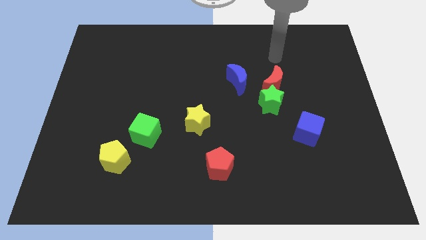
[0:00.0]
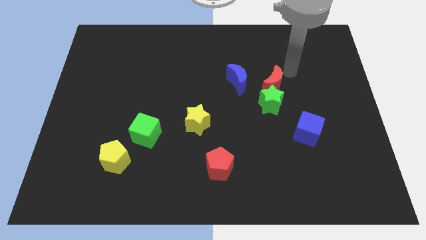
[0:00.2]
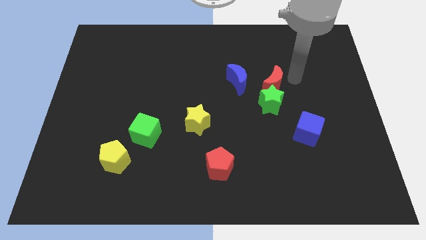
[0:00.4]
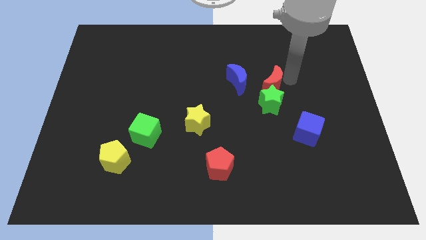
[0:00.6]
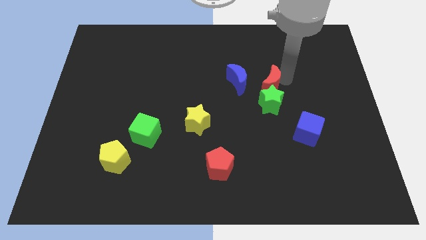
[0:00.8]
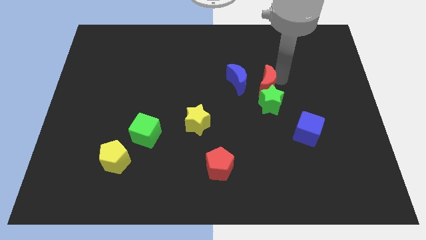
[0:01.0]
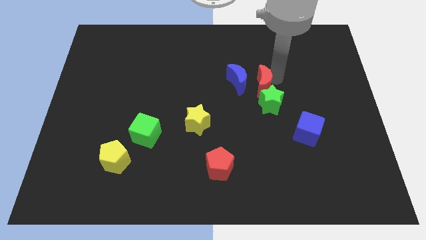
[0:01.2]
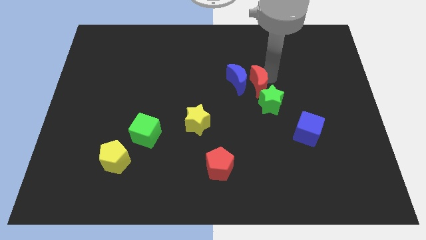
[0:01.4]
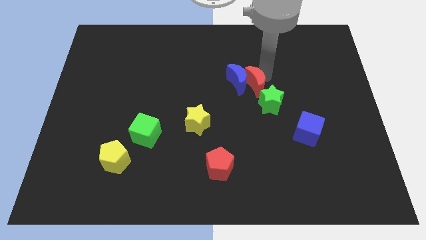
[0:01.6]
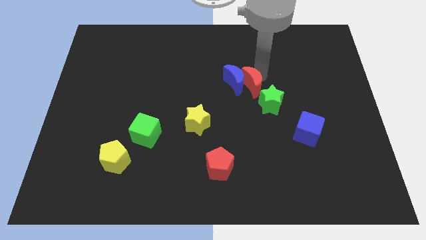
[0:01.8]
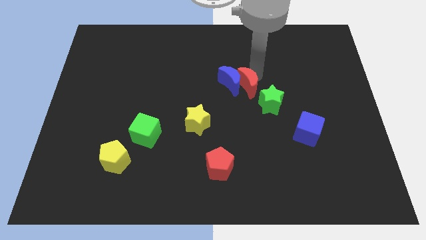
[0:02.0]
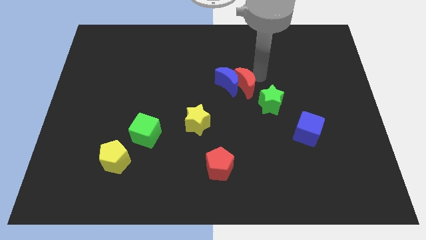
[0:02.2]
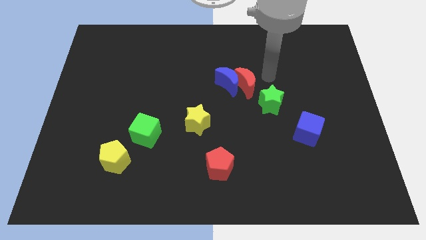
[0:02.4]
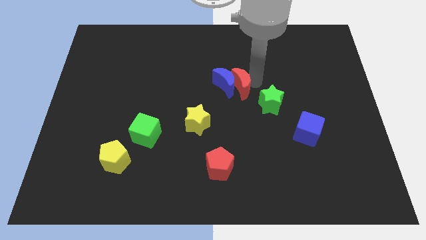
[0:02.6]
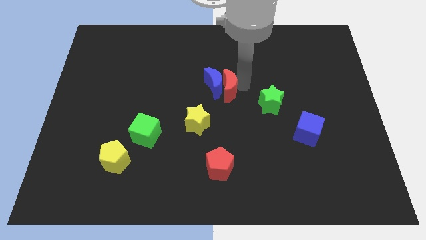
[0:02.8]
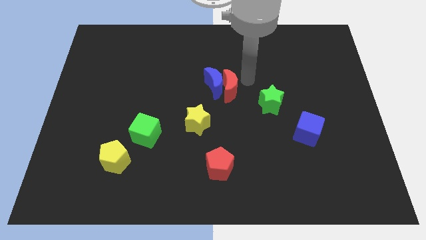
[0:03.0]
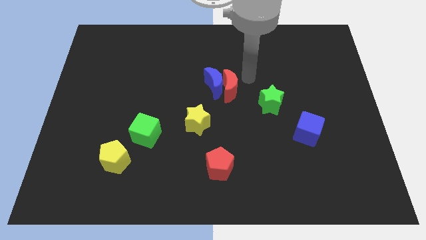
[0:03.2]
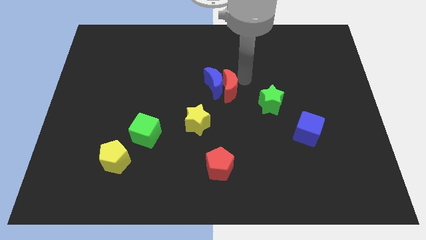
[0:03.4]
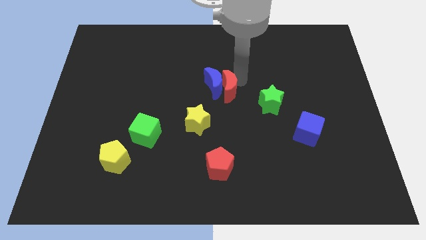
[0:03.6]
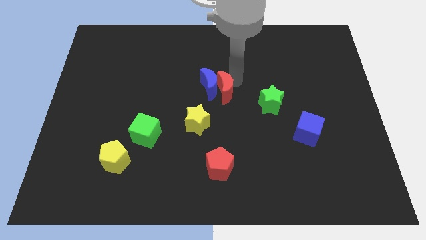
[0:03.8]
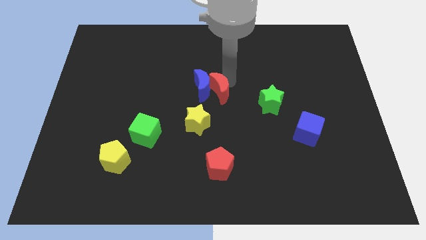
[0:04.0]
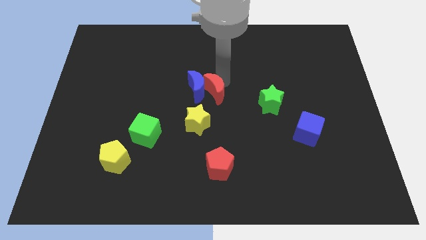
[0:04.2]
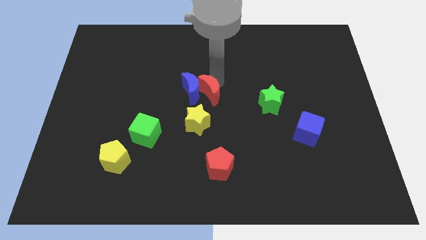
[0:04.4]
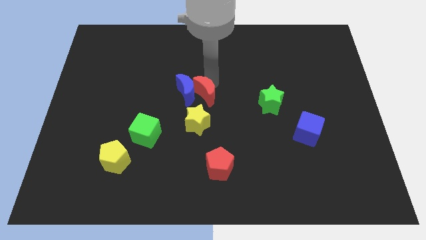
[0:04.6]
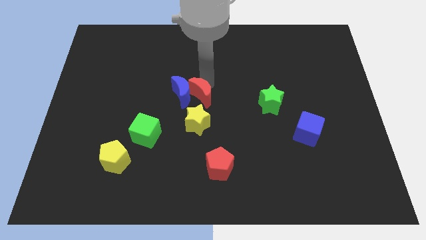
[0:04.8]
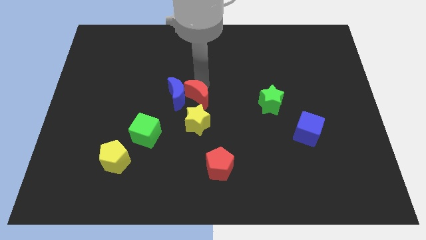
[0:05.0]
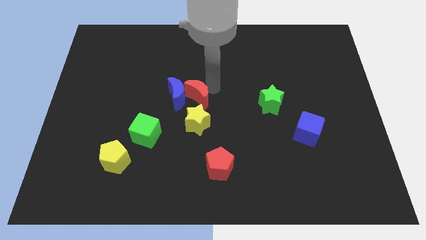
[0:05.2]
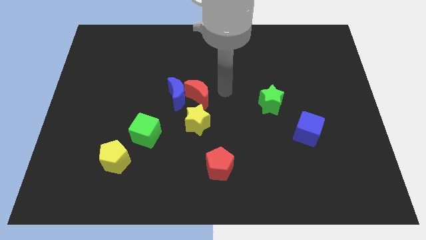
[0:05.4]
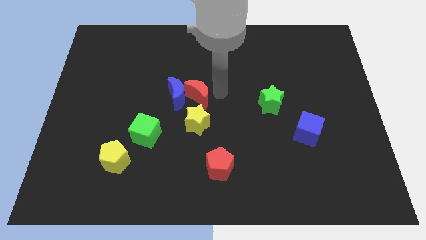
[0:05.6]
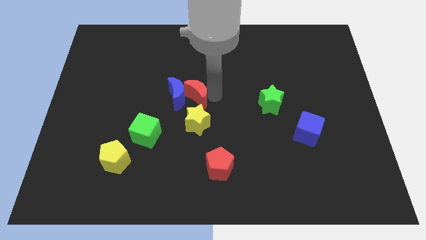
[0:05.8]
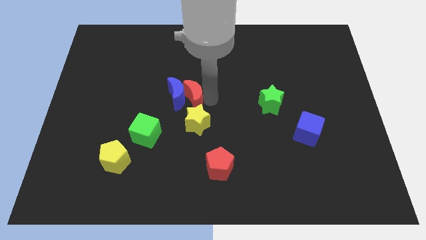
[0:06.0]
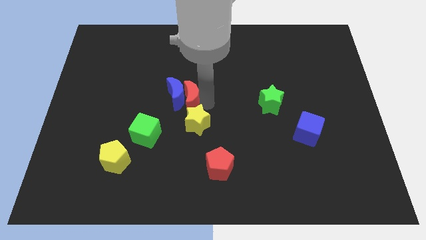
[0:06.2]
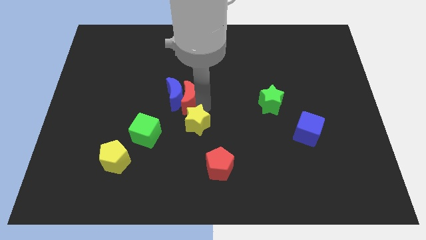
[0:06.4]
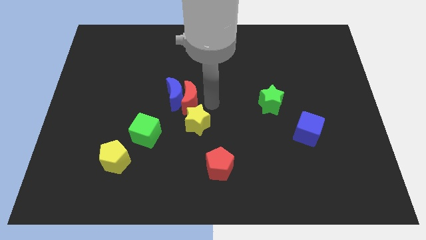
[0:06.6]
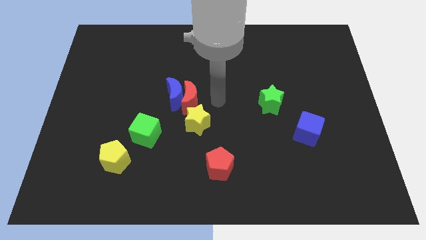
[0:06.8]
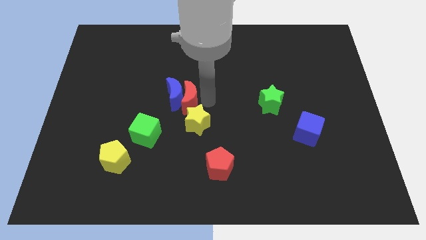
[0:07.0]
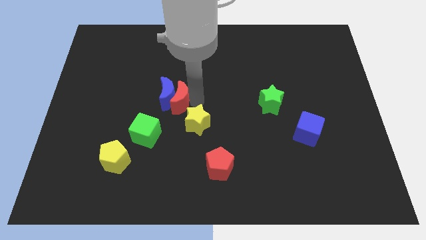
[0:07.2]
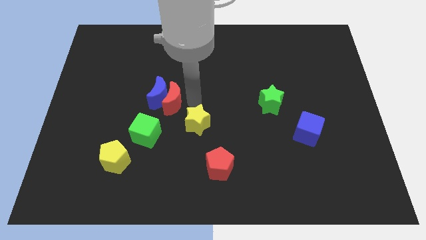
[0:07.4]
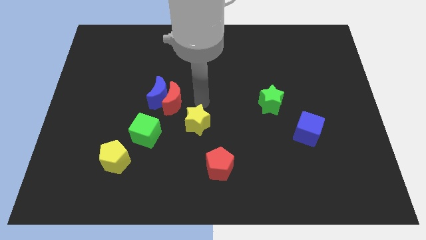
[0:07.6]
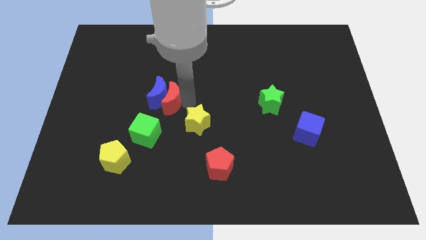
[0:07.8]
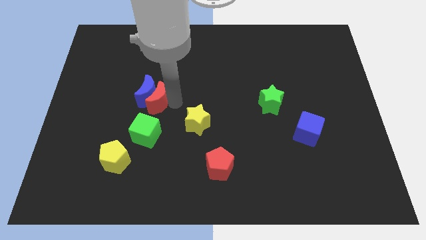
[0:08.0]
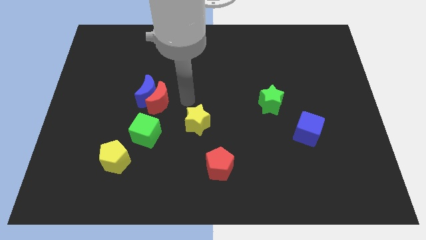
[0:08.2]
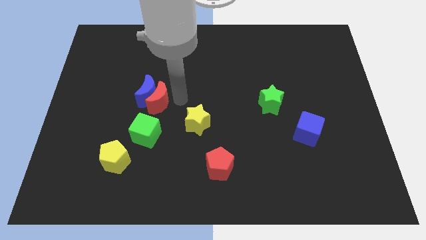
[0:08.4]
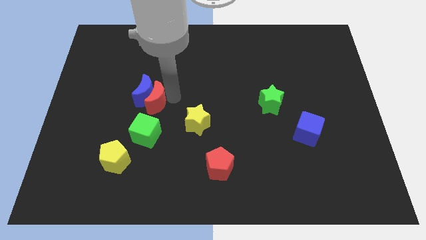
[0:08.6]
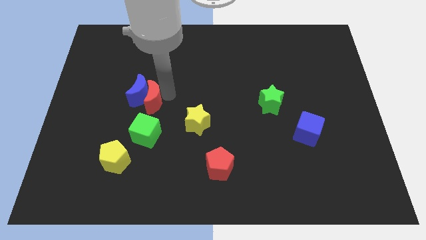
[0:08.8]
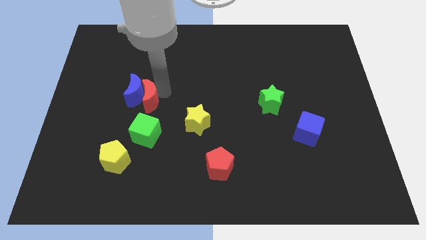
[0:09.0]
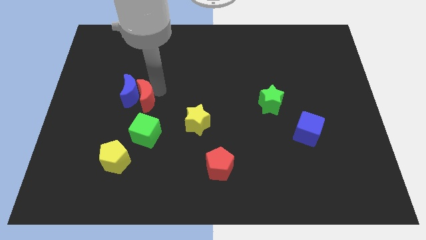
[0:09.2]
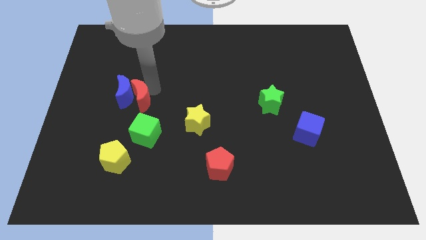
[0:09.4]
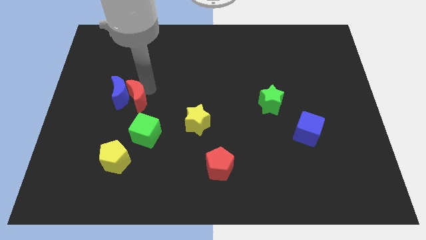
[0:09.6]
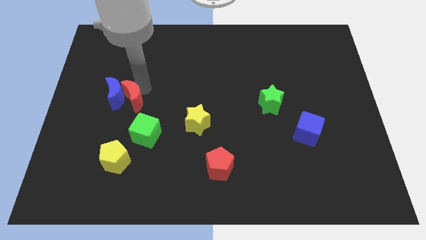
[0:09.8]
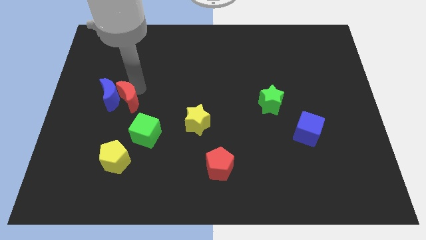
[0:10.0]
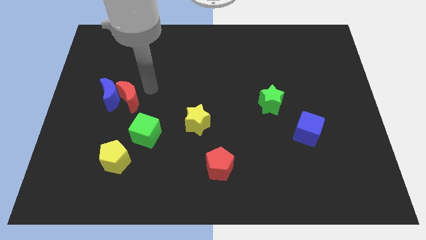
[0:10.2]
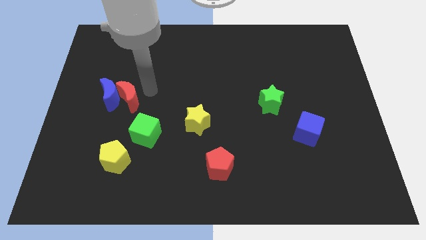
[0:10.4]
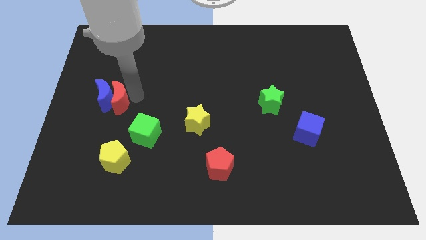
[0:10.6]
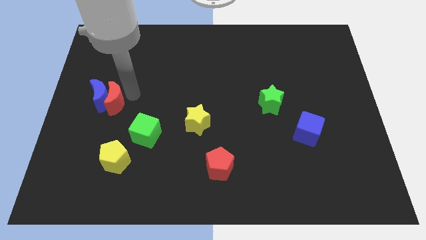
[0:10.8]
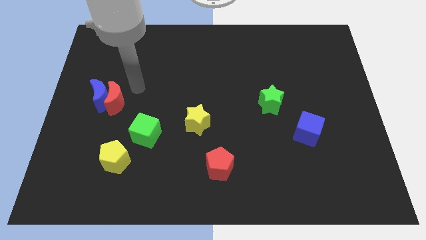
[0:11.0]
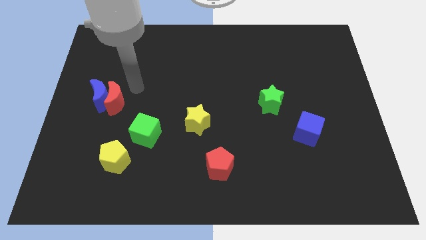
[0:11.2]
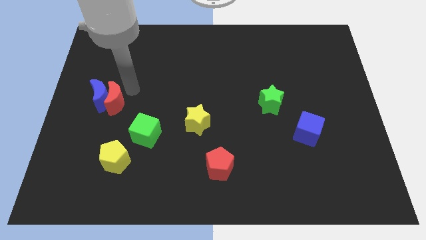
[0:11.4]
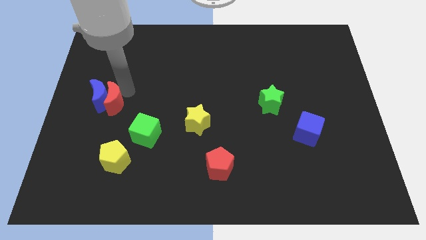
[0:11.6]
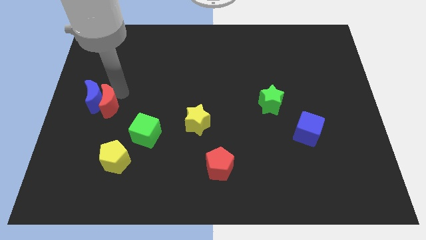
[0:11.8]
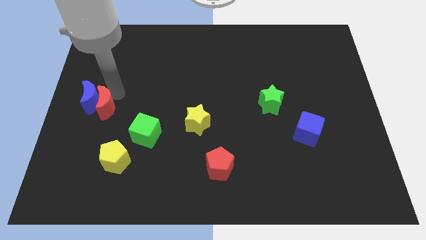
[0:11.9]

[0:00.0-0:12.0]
move the red moon to the center left
